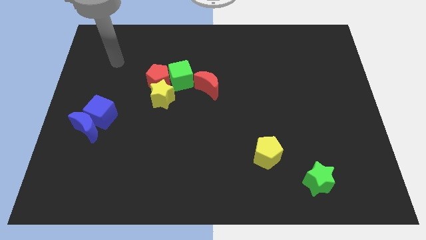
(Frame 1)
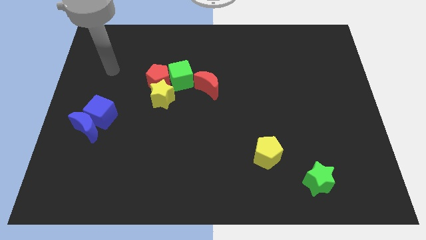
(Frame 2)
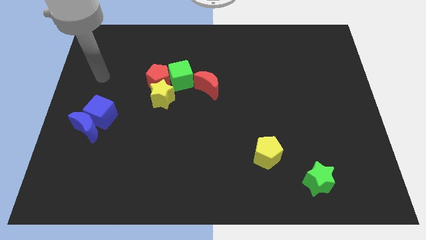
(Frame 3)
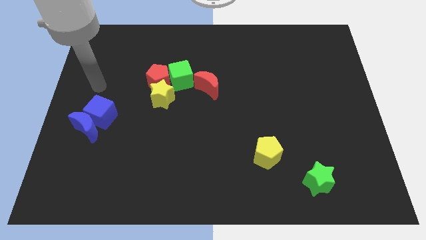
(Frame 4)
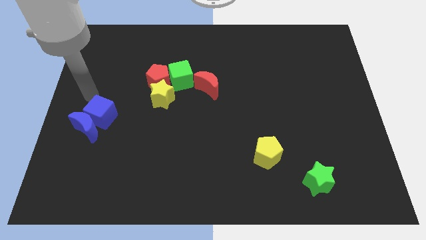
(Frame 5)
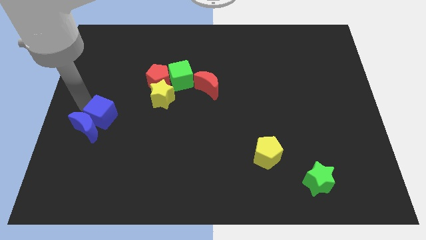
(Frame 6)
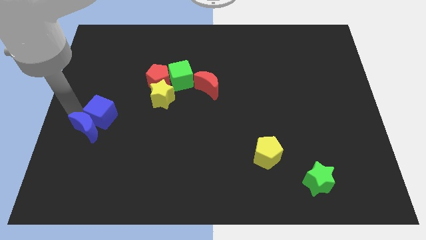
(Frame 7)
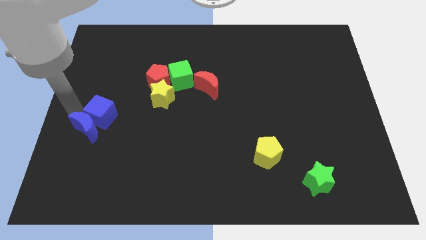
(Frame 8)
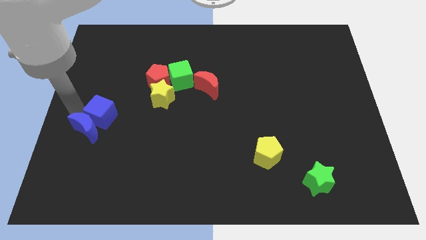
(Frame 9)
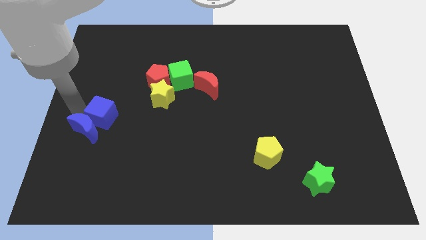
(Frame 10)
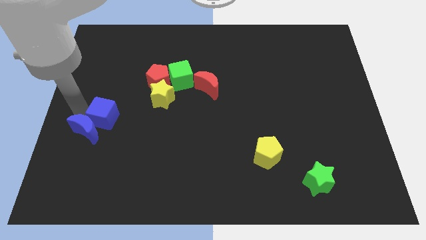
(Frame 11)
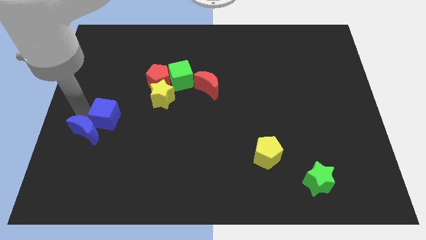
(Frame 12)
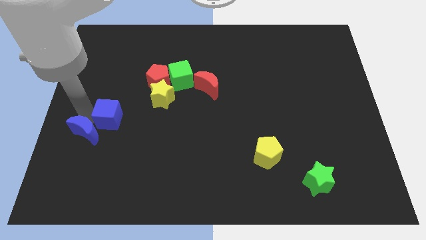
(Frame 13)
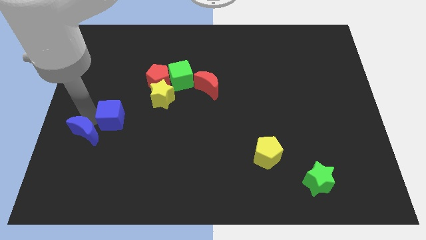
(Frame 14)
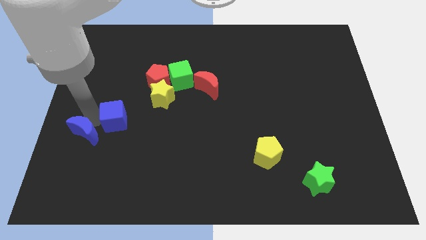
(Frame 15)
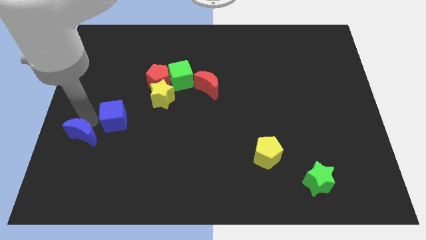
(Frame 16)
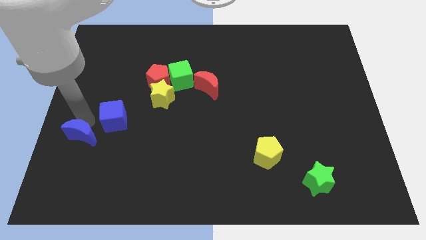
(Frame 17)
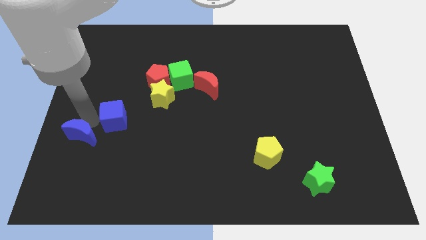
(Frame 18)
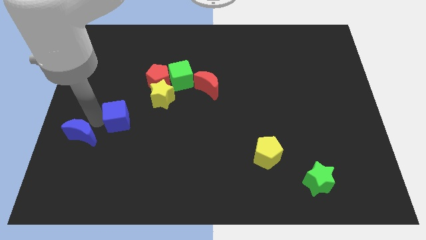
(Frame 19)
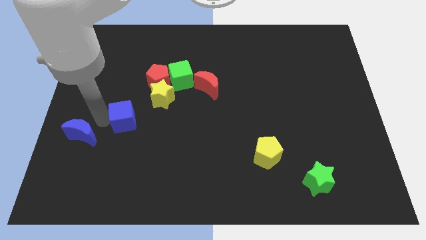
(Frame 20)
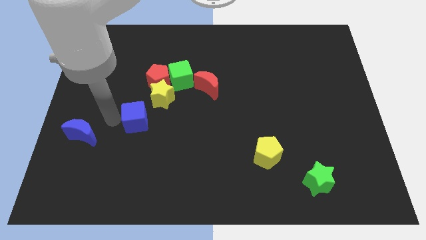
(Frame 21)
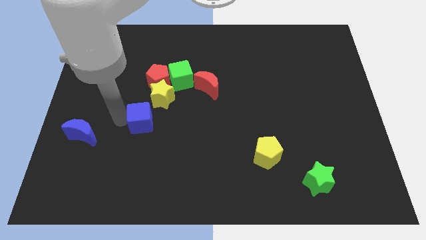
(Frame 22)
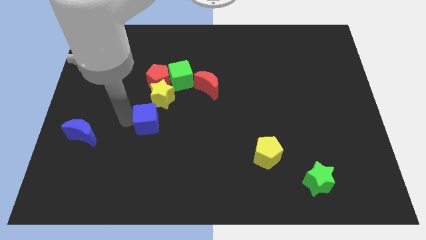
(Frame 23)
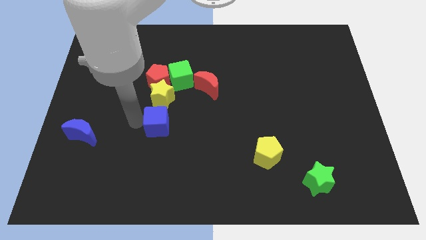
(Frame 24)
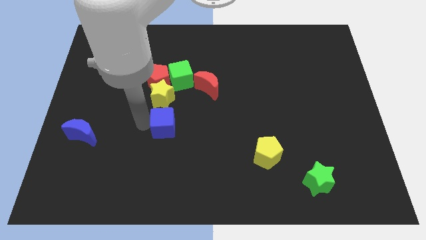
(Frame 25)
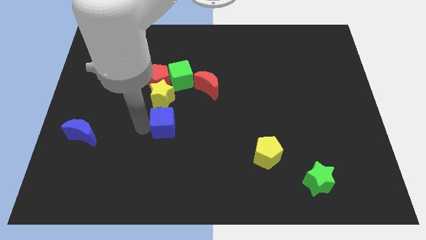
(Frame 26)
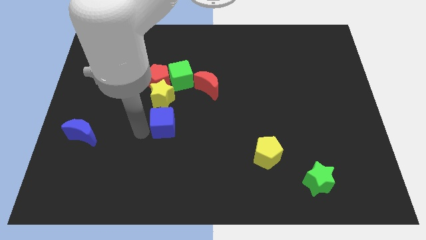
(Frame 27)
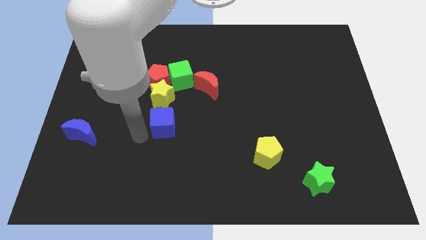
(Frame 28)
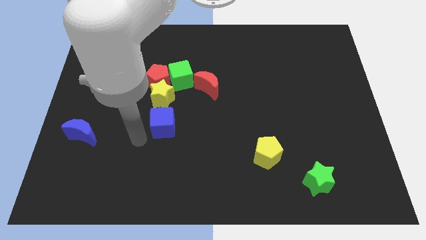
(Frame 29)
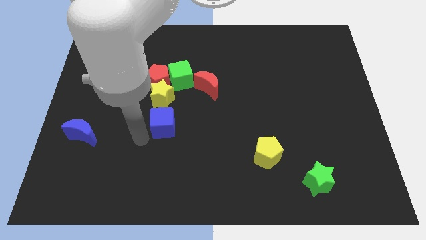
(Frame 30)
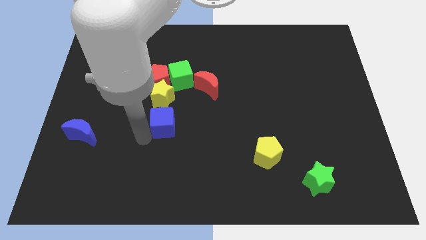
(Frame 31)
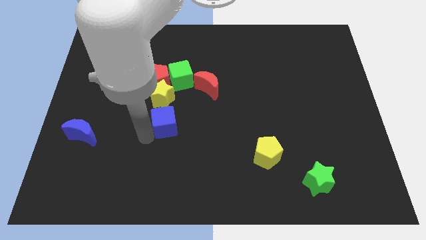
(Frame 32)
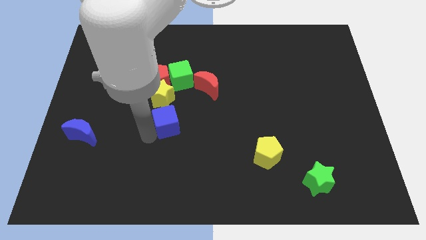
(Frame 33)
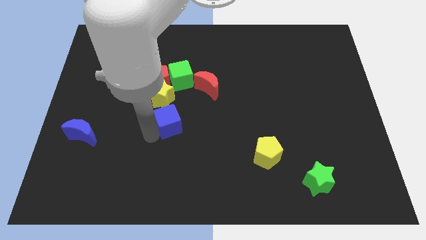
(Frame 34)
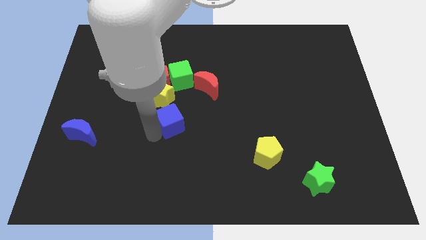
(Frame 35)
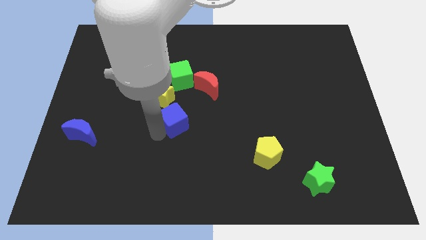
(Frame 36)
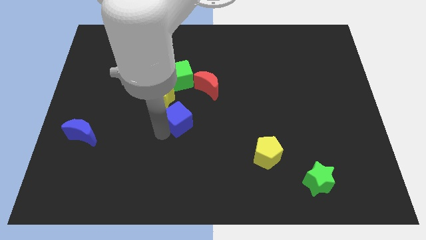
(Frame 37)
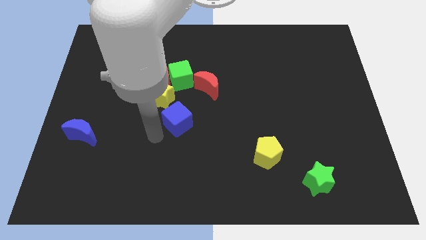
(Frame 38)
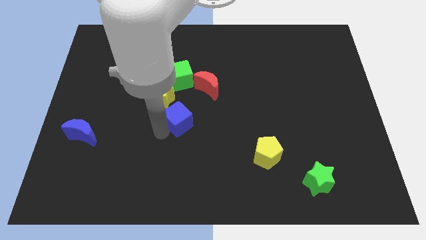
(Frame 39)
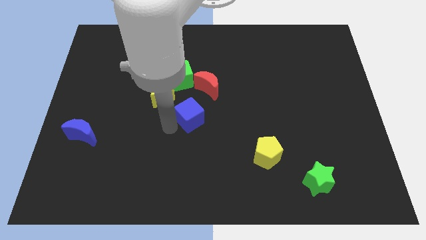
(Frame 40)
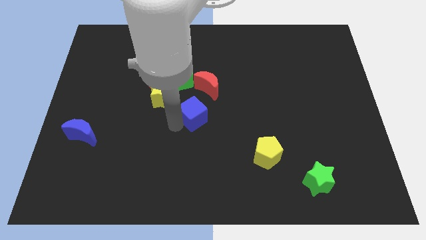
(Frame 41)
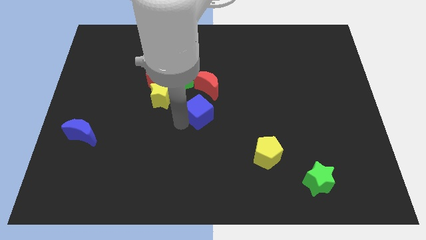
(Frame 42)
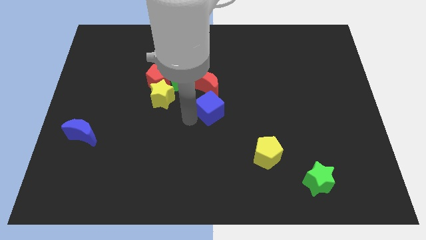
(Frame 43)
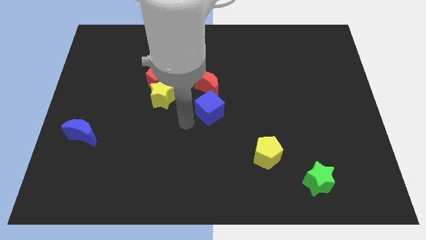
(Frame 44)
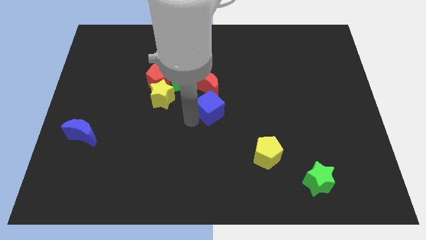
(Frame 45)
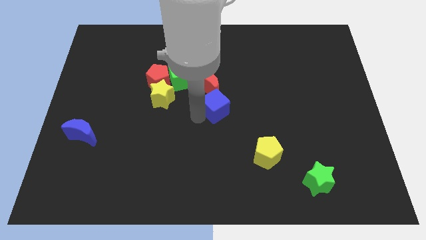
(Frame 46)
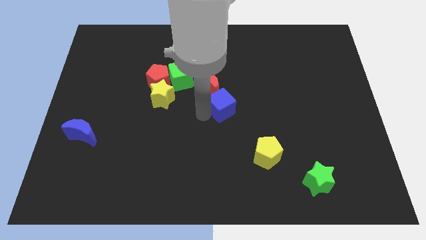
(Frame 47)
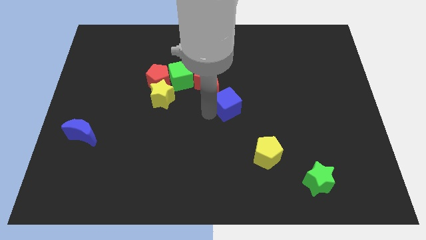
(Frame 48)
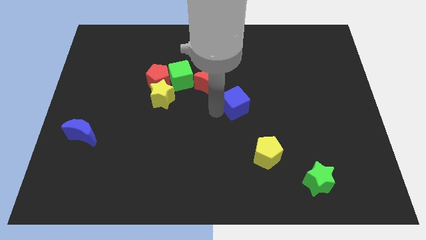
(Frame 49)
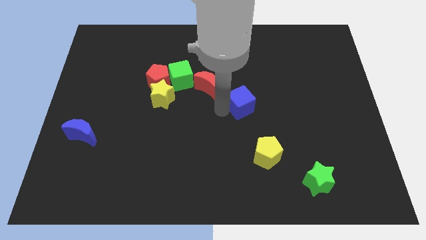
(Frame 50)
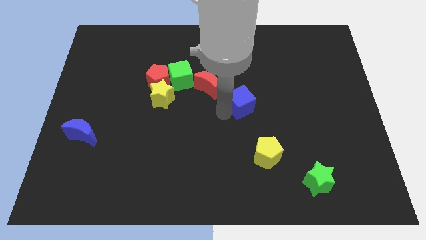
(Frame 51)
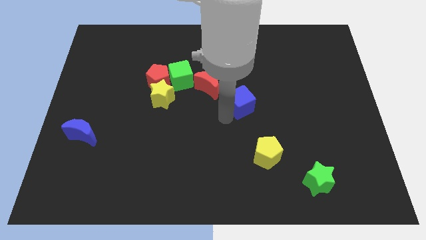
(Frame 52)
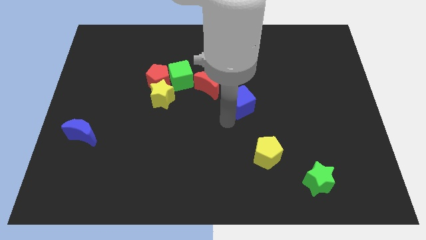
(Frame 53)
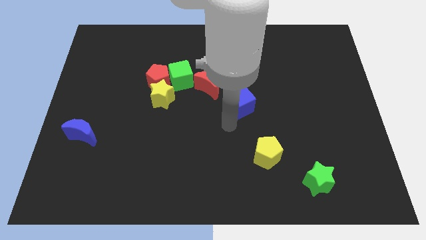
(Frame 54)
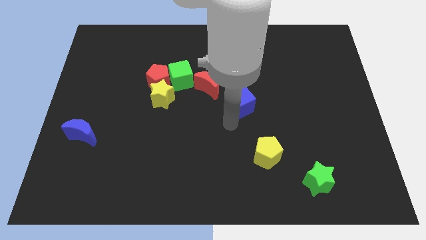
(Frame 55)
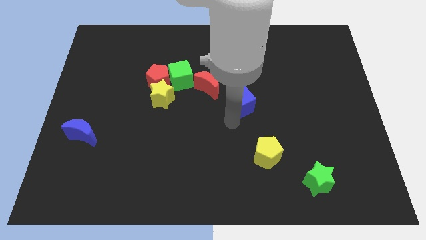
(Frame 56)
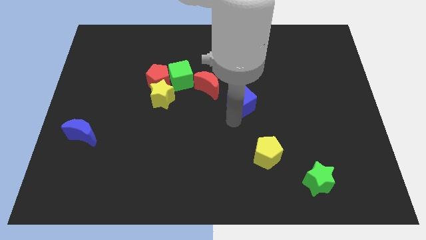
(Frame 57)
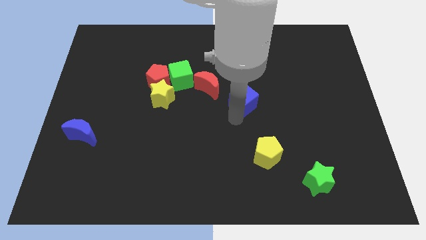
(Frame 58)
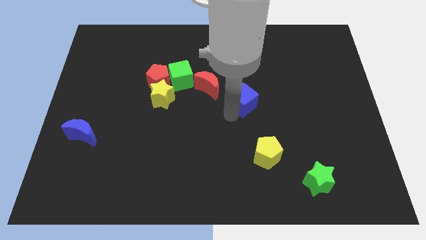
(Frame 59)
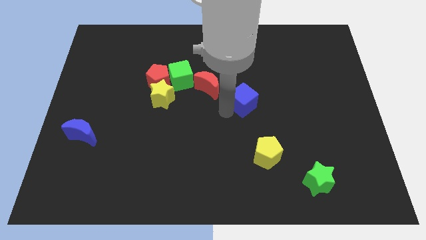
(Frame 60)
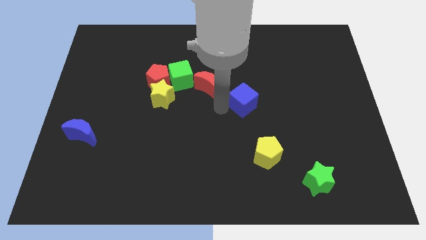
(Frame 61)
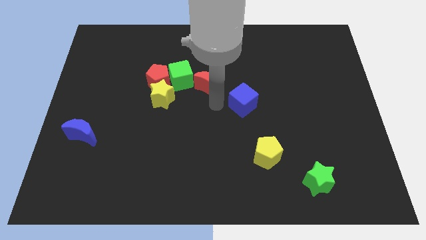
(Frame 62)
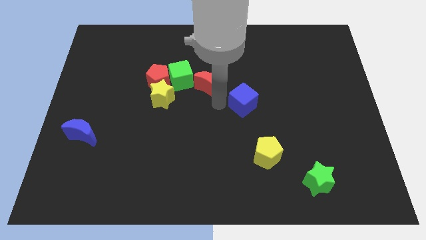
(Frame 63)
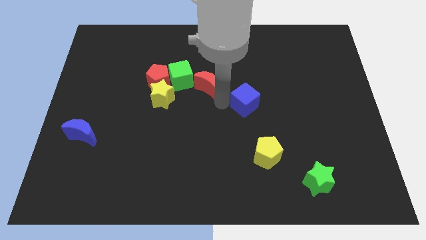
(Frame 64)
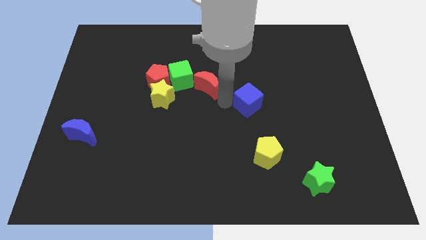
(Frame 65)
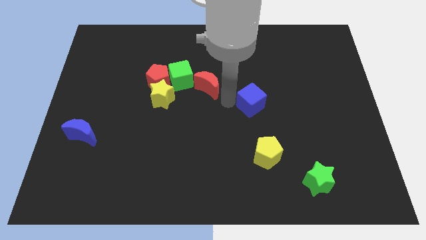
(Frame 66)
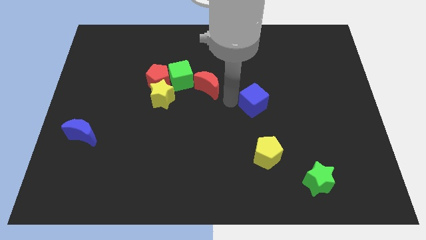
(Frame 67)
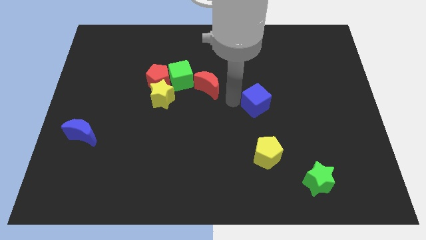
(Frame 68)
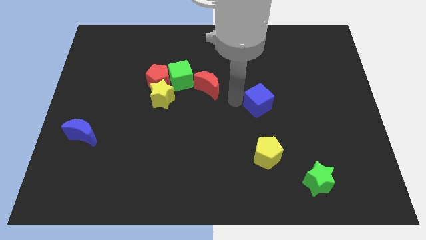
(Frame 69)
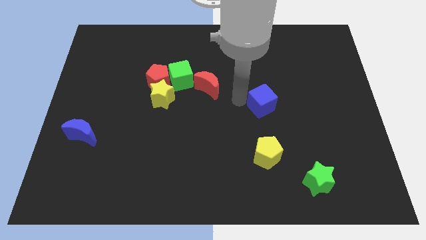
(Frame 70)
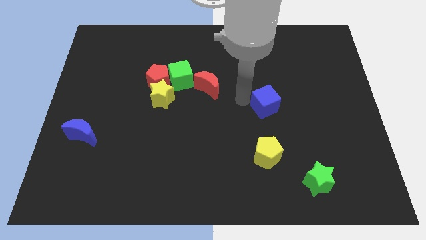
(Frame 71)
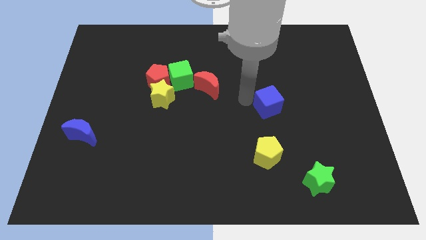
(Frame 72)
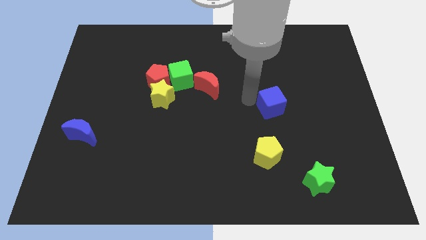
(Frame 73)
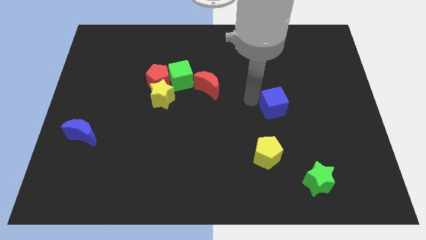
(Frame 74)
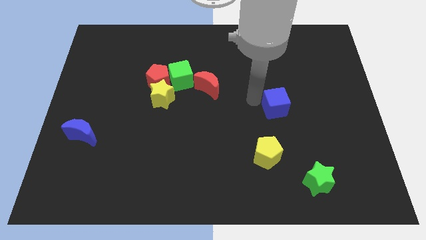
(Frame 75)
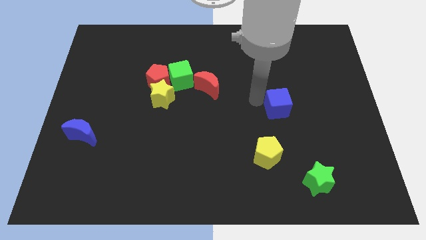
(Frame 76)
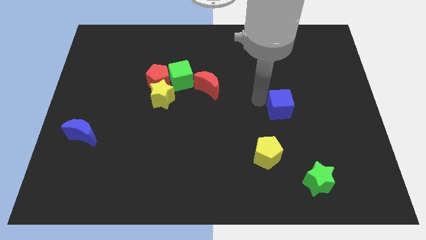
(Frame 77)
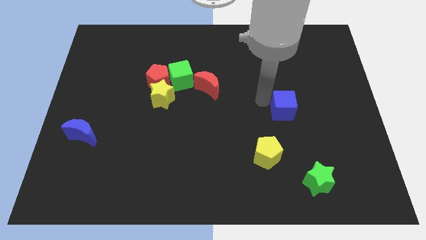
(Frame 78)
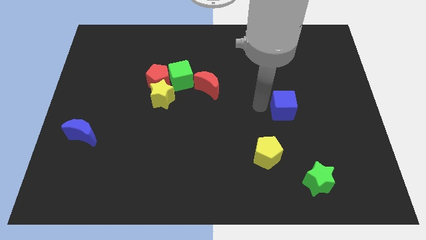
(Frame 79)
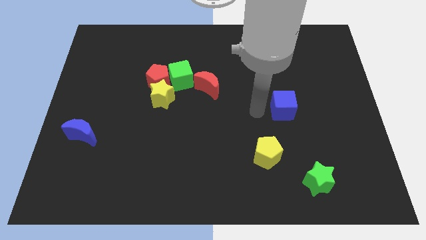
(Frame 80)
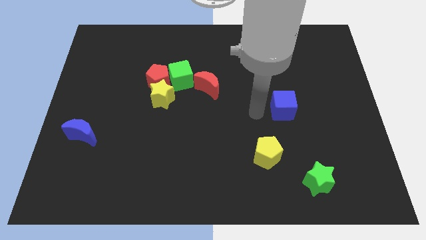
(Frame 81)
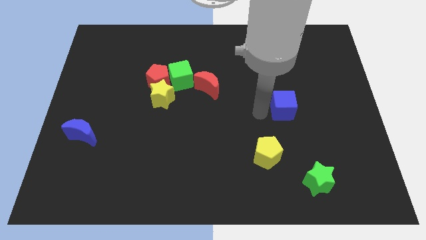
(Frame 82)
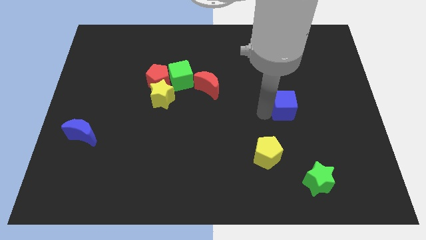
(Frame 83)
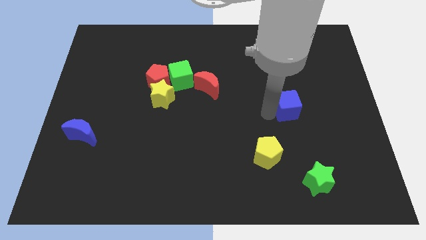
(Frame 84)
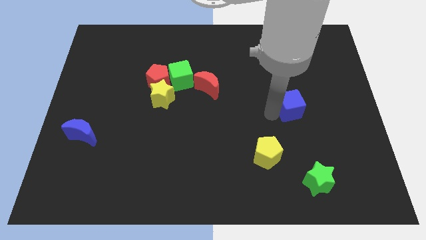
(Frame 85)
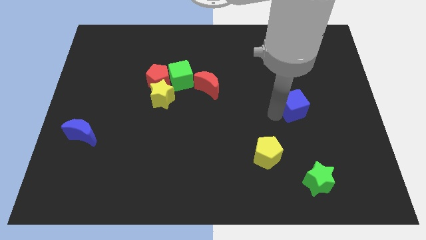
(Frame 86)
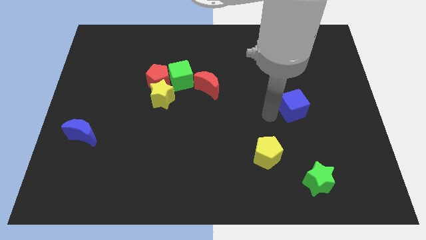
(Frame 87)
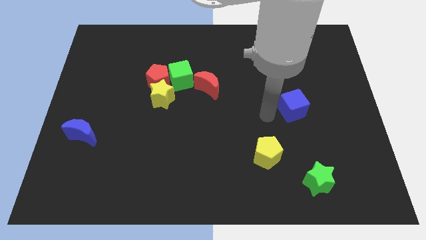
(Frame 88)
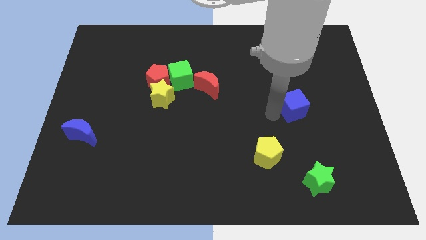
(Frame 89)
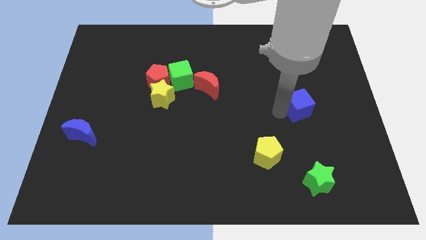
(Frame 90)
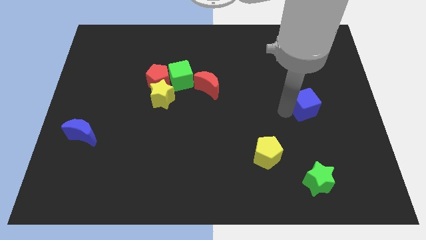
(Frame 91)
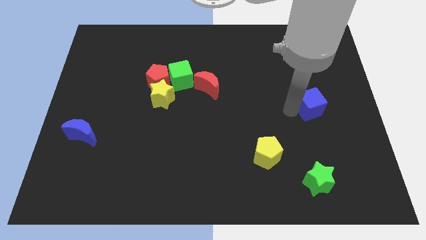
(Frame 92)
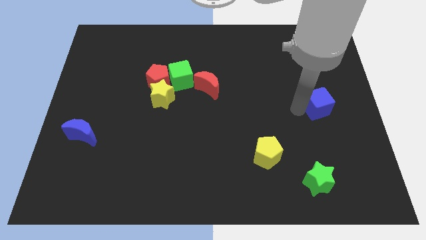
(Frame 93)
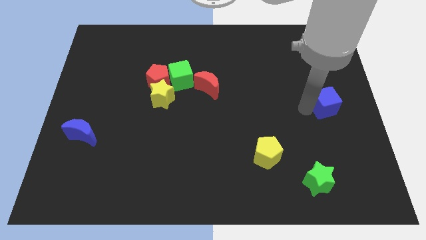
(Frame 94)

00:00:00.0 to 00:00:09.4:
slide the blue cube to the center right
